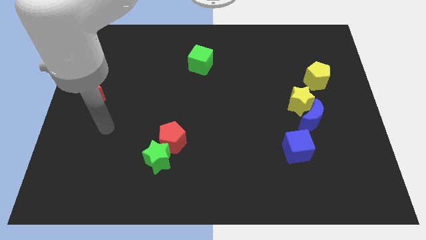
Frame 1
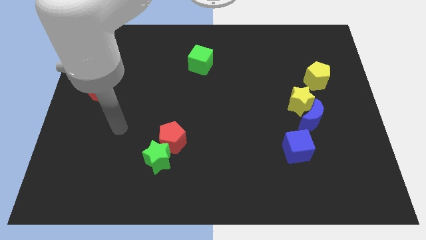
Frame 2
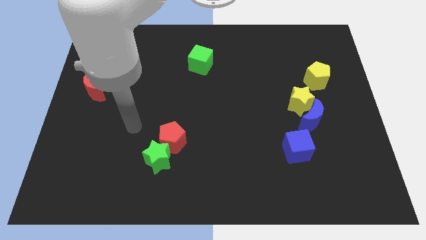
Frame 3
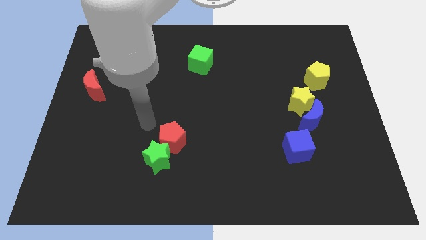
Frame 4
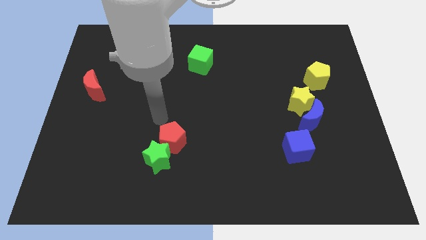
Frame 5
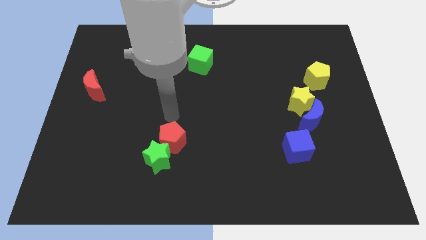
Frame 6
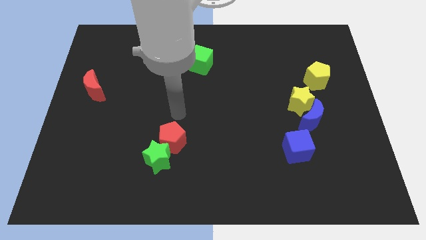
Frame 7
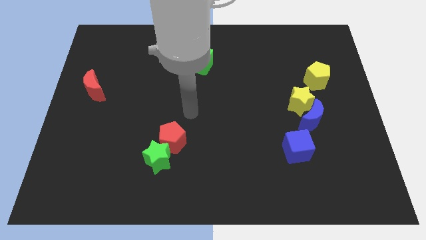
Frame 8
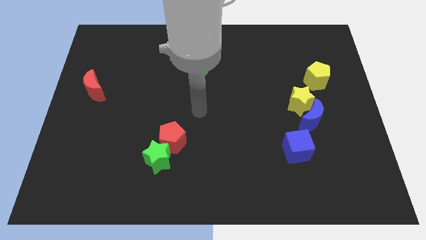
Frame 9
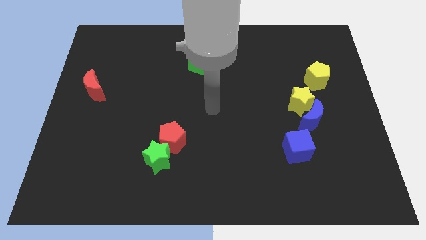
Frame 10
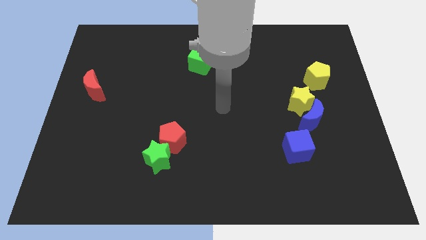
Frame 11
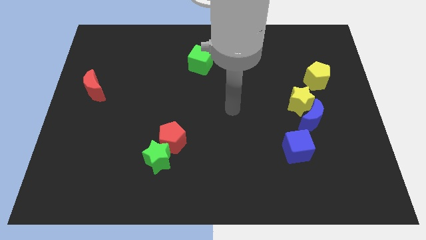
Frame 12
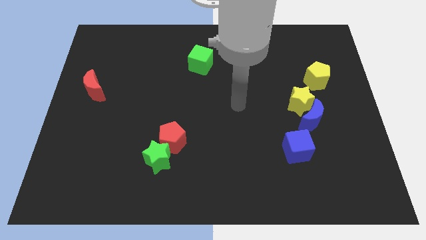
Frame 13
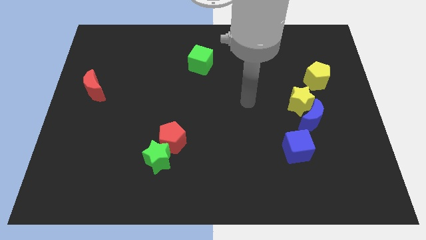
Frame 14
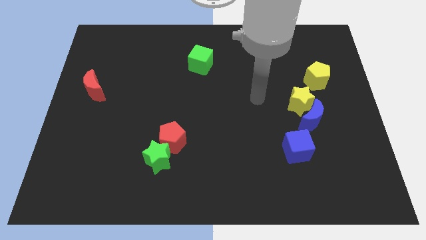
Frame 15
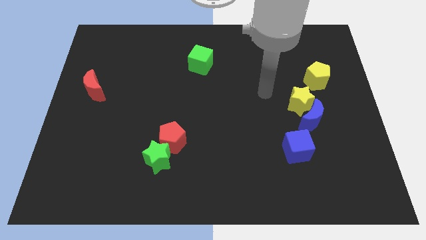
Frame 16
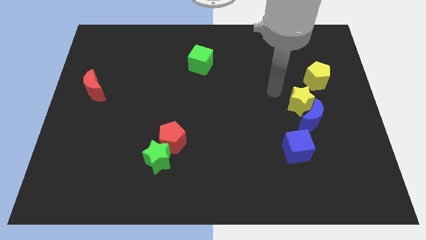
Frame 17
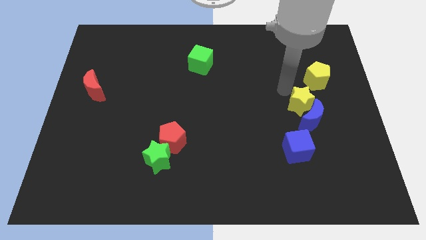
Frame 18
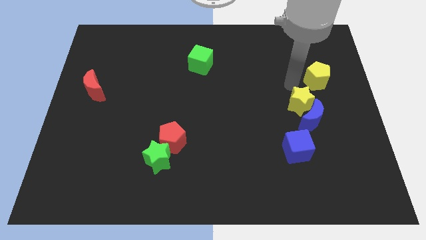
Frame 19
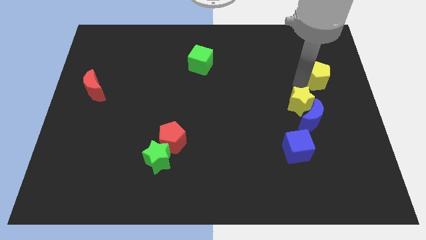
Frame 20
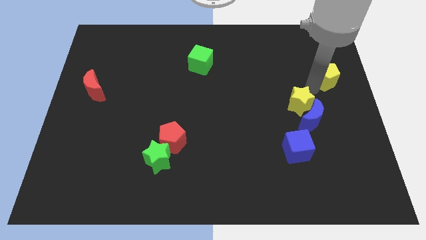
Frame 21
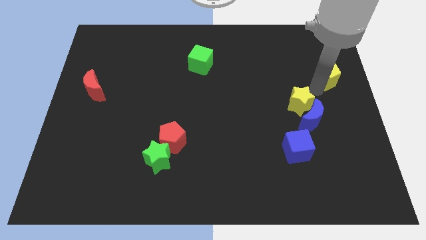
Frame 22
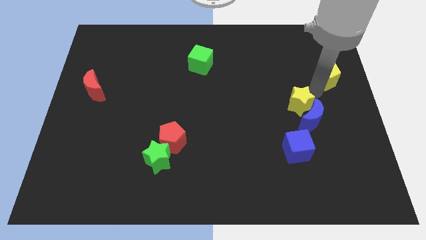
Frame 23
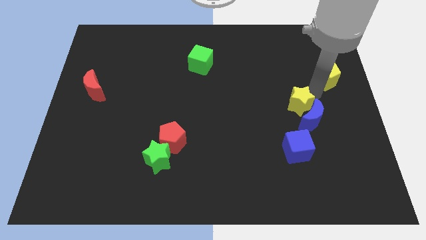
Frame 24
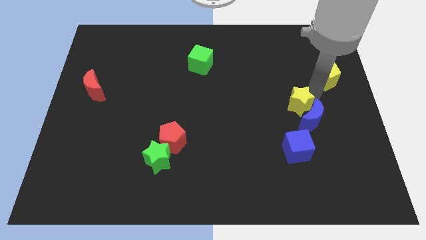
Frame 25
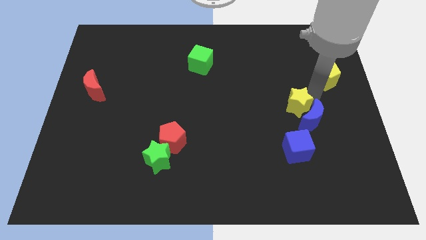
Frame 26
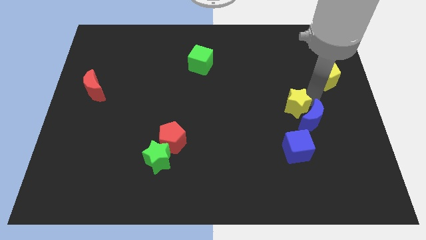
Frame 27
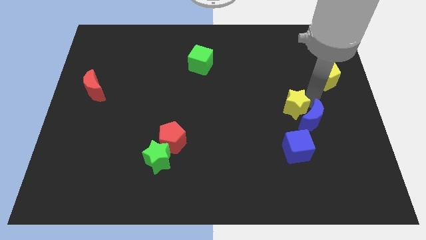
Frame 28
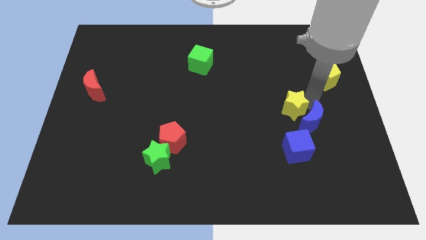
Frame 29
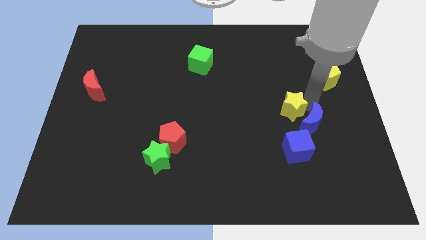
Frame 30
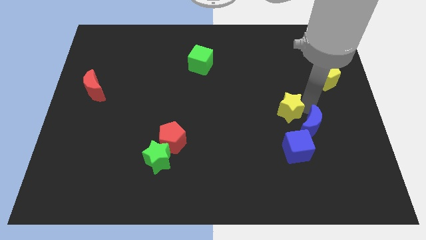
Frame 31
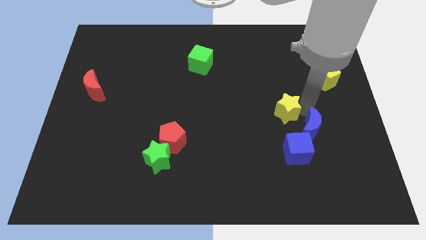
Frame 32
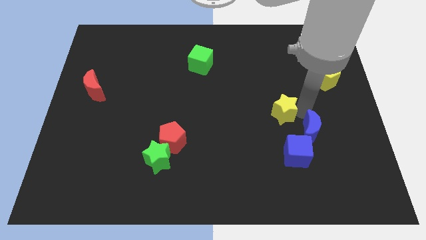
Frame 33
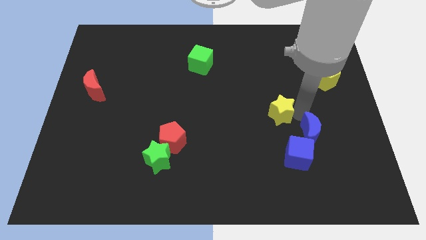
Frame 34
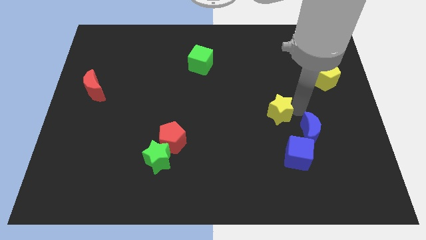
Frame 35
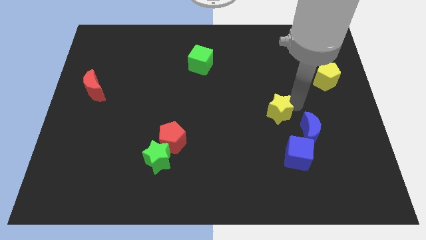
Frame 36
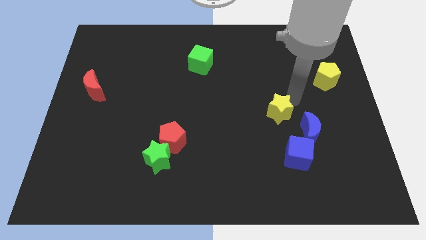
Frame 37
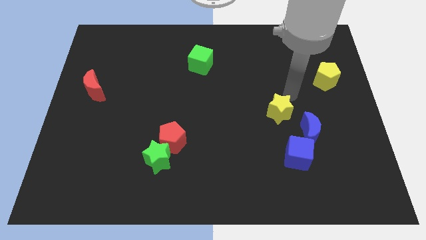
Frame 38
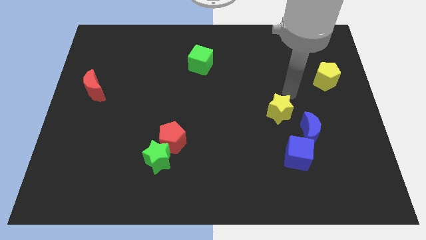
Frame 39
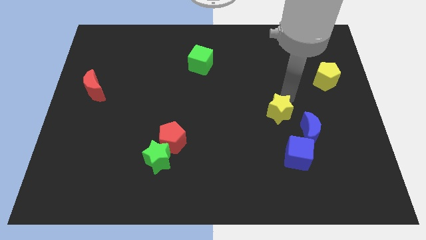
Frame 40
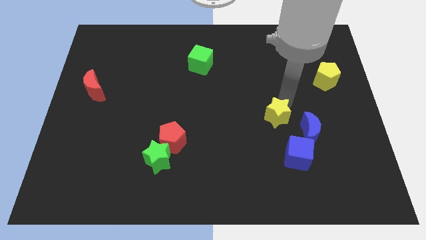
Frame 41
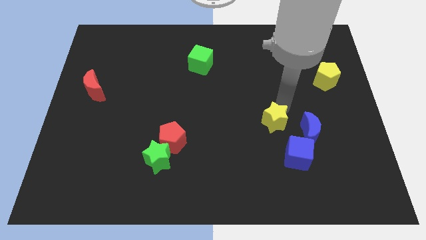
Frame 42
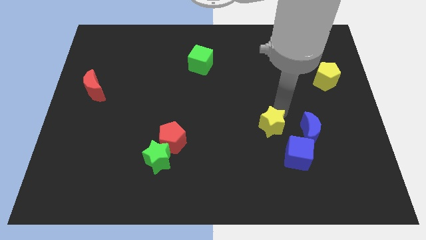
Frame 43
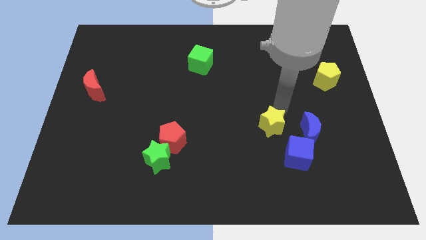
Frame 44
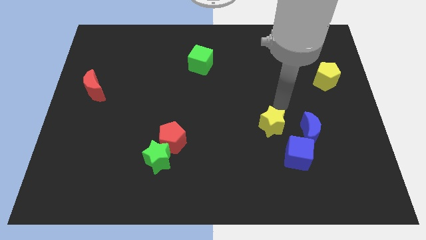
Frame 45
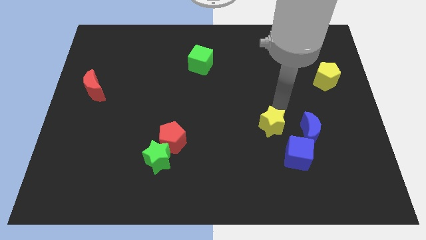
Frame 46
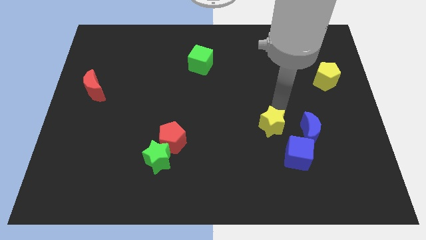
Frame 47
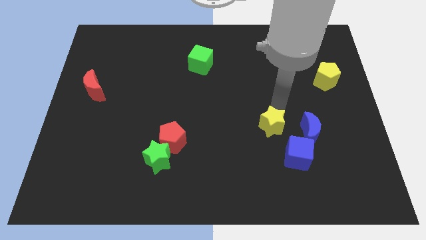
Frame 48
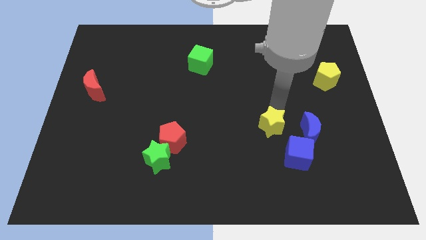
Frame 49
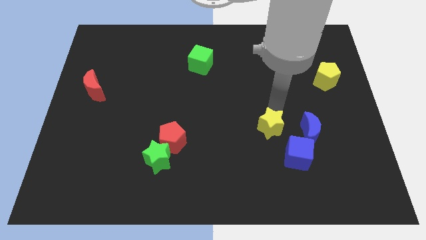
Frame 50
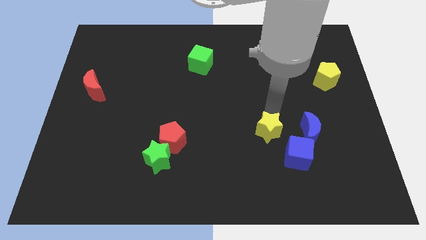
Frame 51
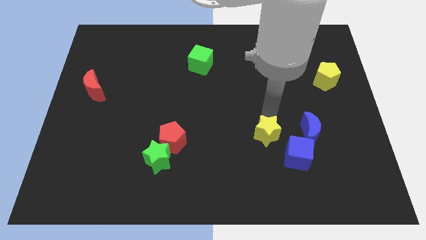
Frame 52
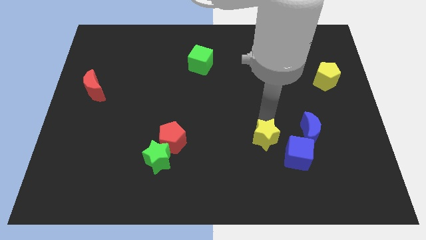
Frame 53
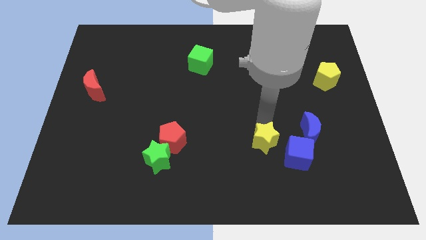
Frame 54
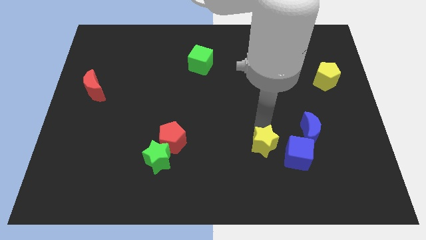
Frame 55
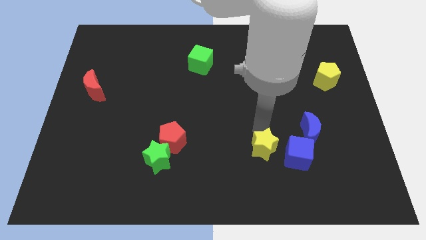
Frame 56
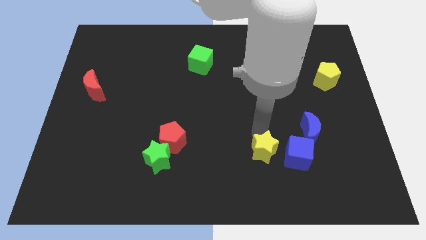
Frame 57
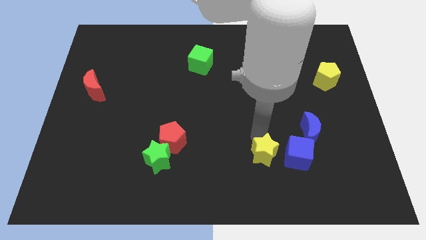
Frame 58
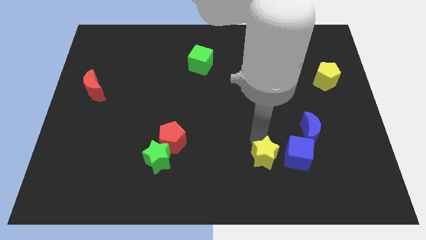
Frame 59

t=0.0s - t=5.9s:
slide the yellow star diagonally down and to the left of the blue cube

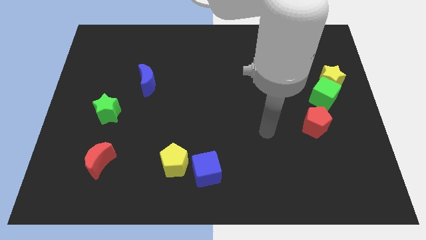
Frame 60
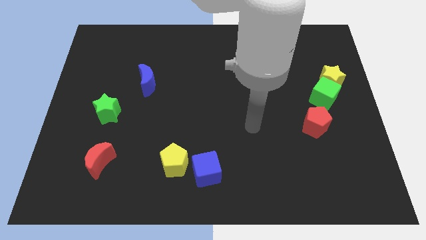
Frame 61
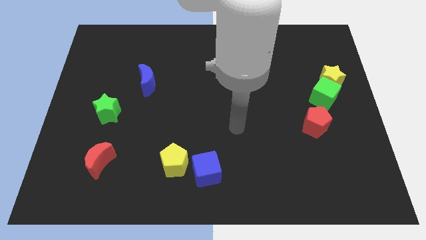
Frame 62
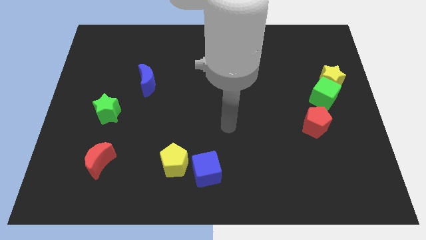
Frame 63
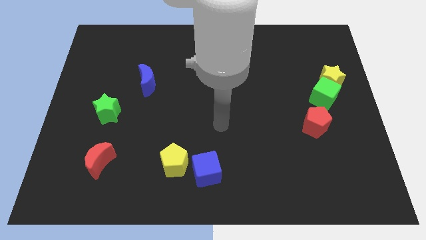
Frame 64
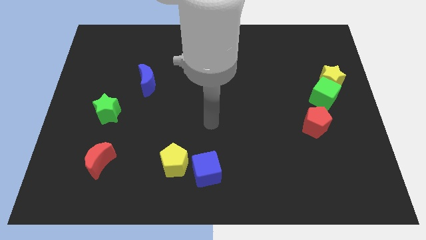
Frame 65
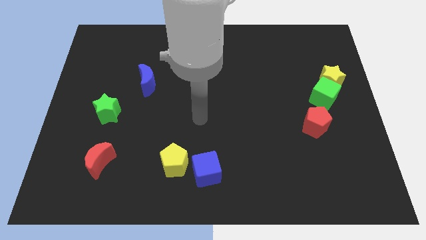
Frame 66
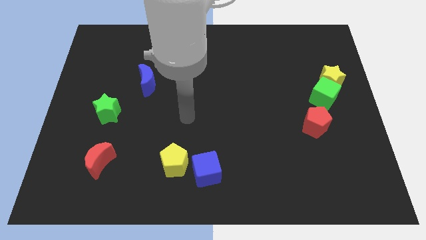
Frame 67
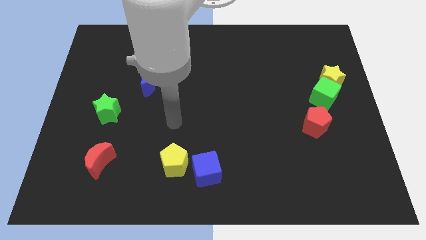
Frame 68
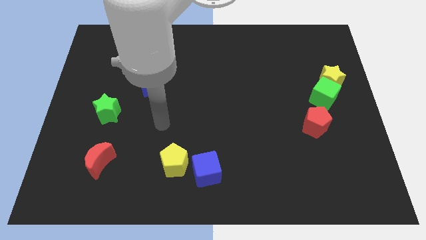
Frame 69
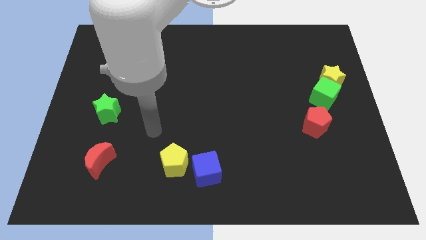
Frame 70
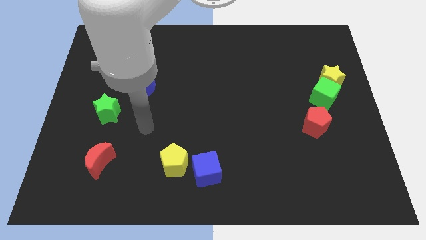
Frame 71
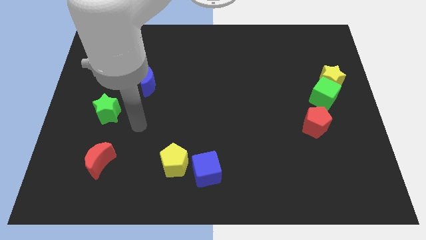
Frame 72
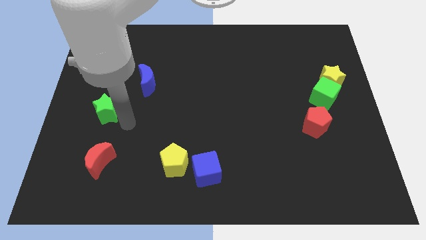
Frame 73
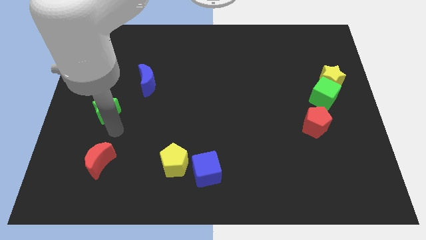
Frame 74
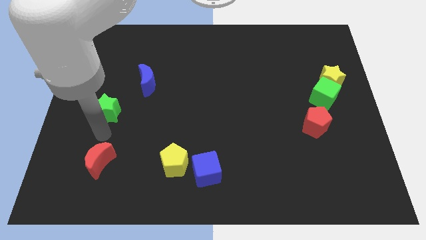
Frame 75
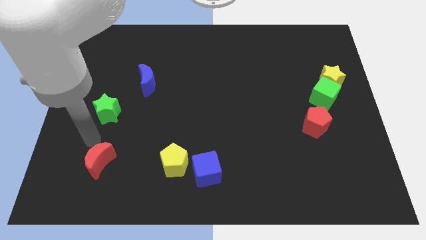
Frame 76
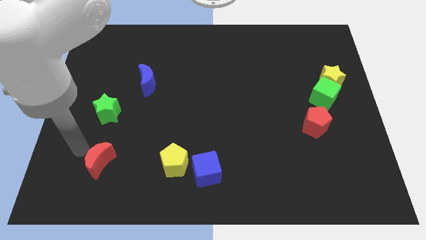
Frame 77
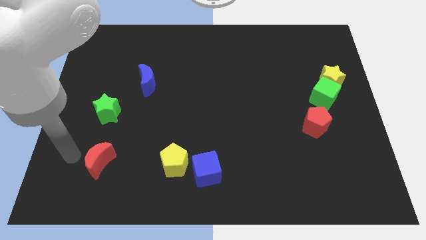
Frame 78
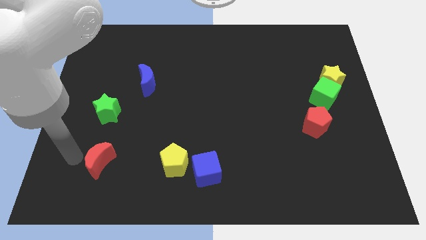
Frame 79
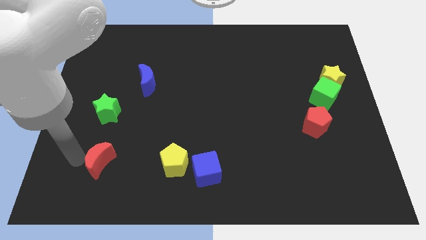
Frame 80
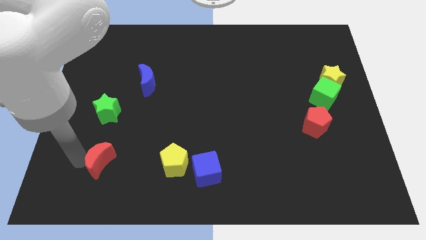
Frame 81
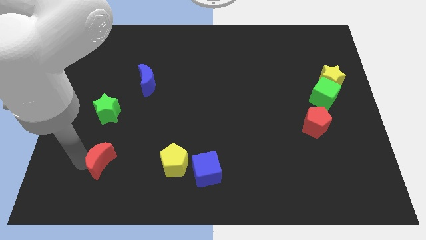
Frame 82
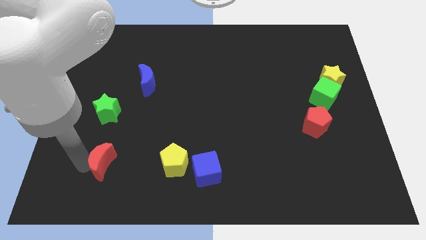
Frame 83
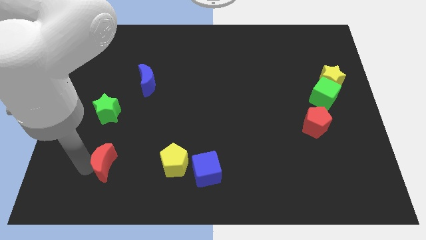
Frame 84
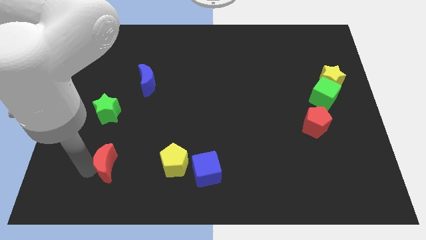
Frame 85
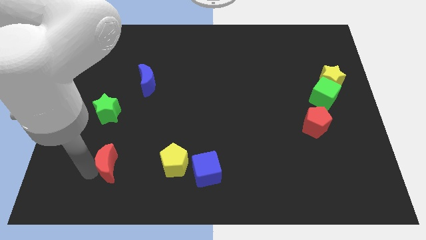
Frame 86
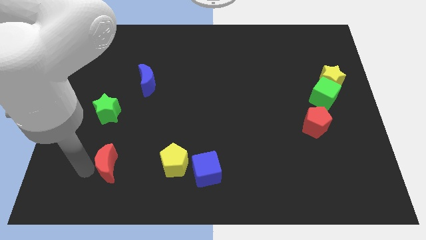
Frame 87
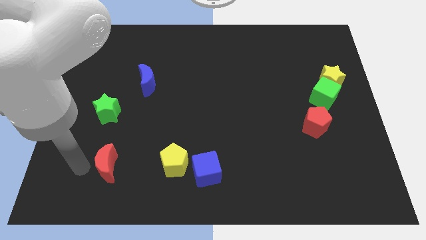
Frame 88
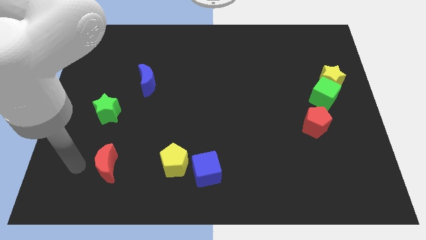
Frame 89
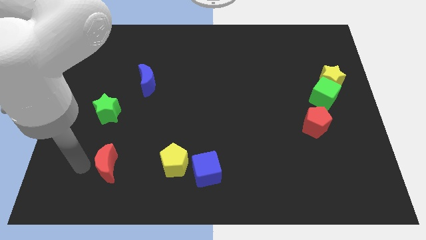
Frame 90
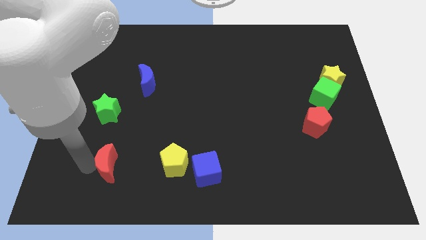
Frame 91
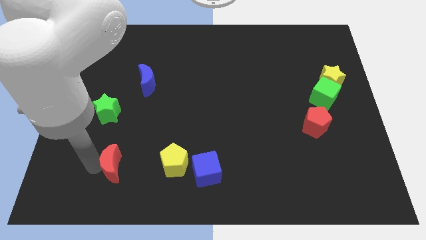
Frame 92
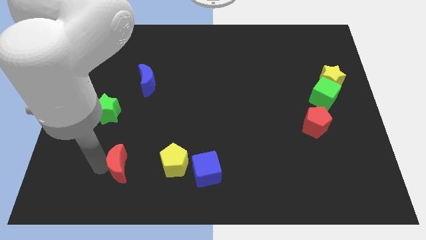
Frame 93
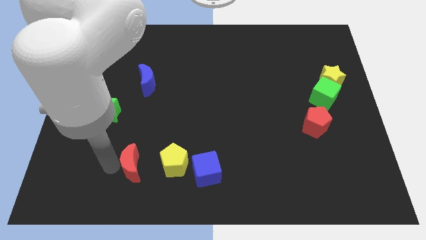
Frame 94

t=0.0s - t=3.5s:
put the red moon left of the blue cube
